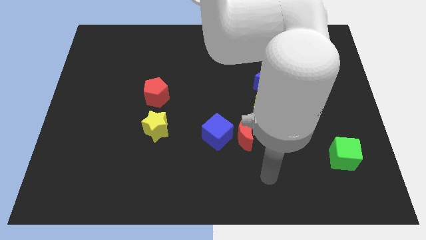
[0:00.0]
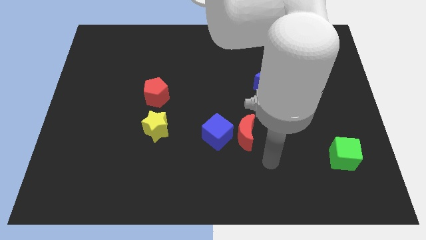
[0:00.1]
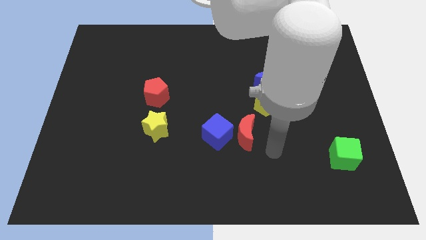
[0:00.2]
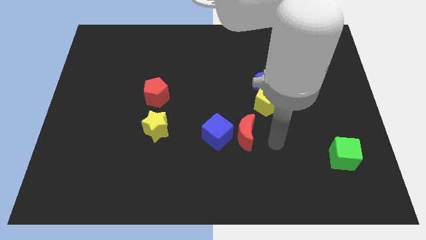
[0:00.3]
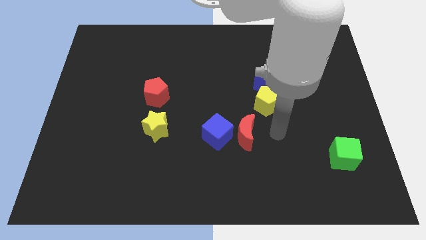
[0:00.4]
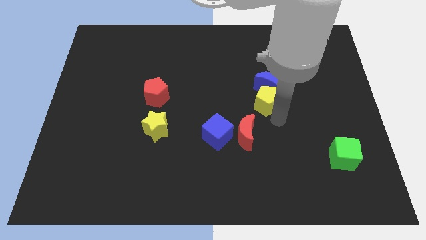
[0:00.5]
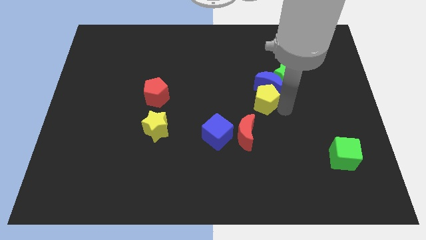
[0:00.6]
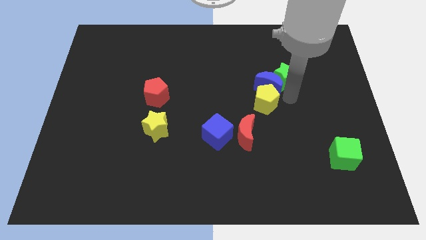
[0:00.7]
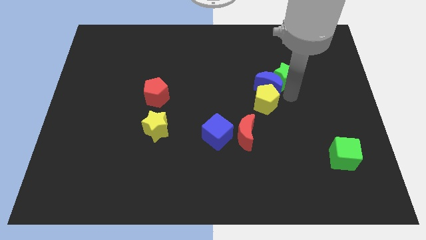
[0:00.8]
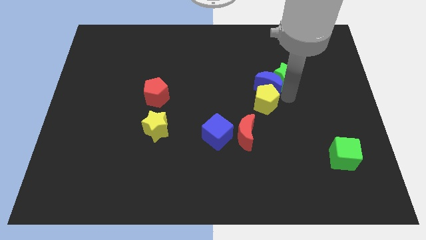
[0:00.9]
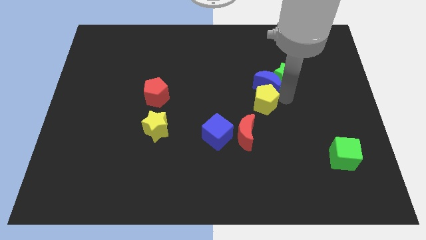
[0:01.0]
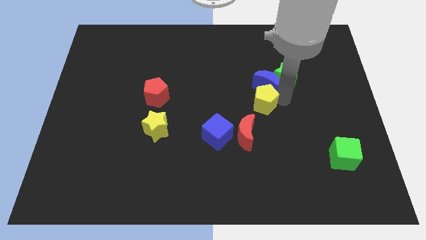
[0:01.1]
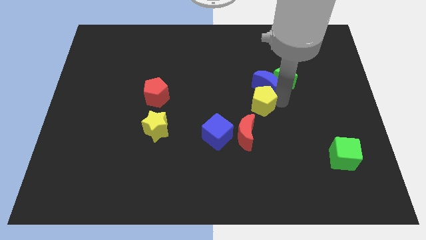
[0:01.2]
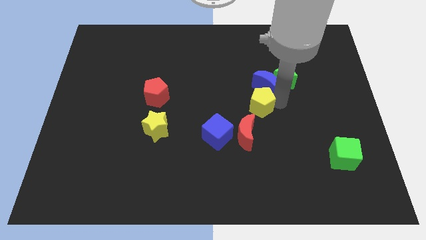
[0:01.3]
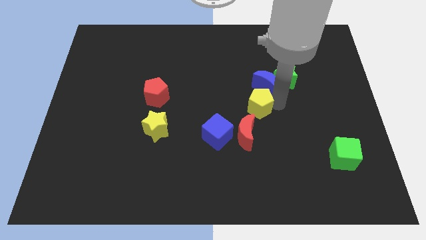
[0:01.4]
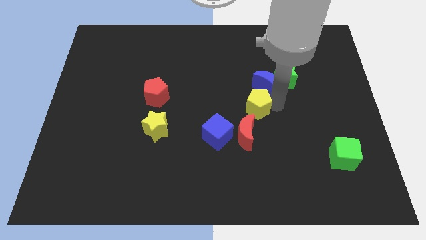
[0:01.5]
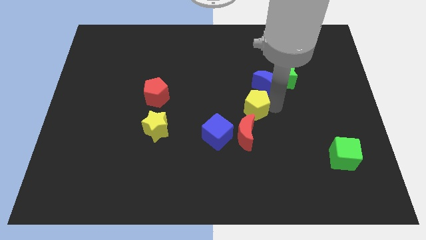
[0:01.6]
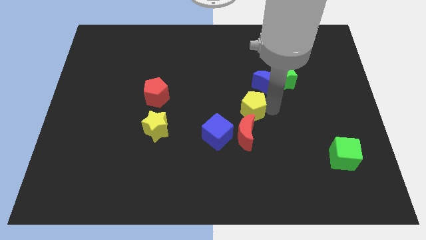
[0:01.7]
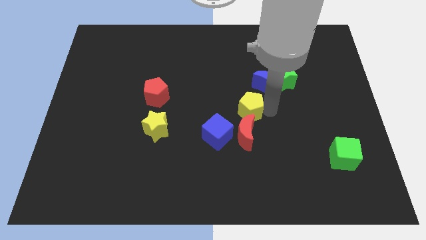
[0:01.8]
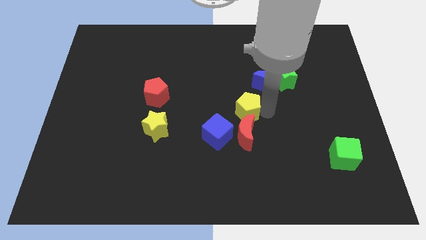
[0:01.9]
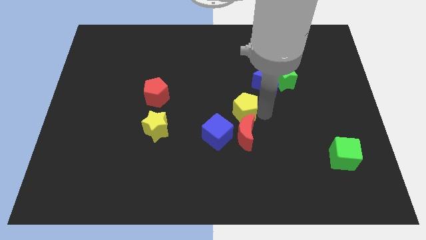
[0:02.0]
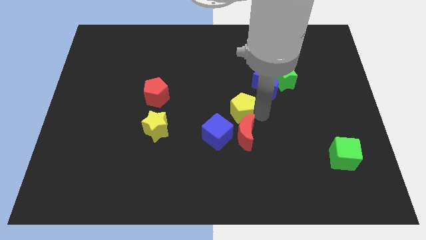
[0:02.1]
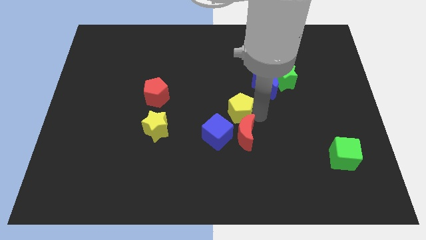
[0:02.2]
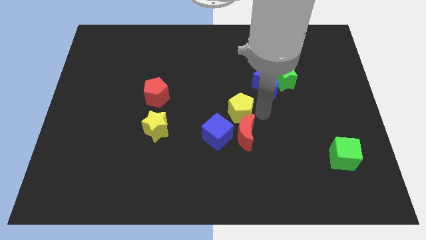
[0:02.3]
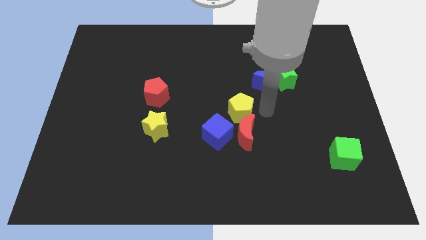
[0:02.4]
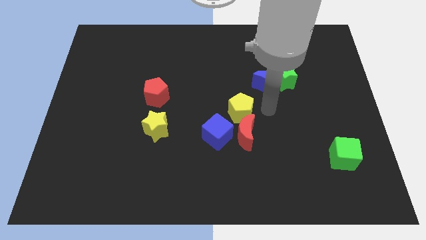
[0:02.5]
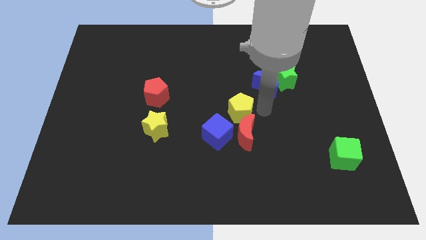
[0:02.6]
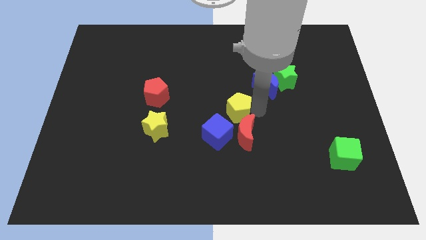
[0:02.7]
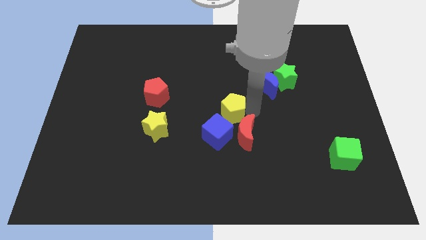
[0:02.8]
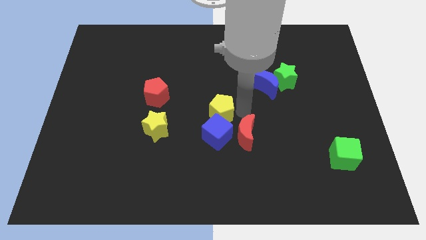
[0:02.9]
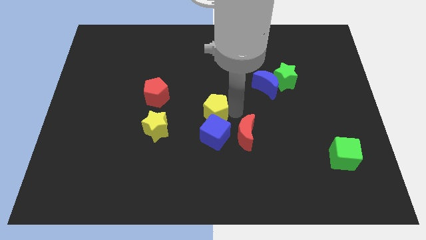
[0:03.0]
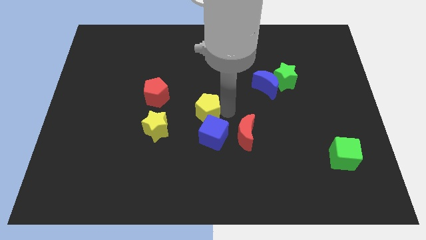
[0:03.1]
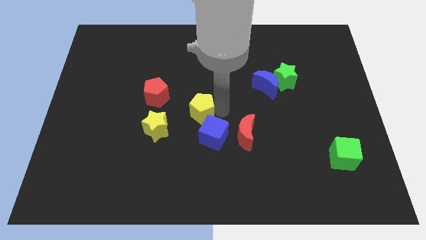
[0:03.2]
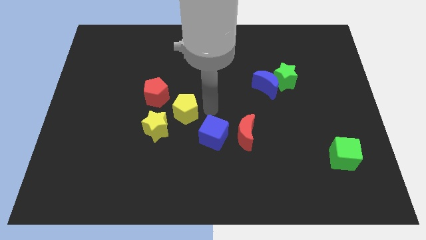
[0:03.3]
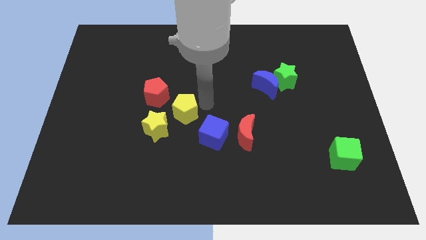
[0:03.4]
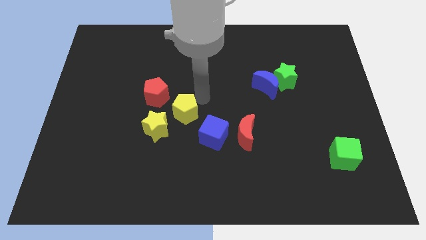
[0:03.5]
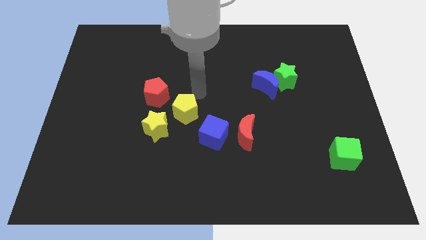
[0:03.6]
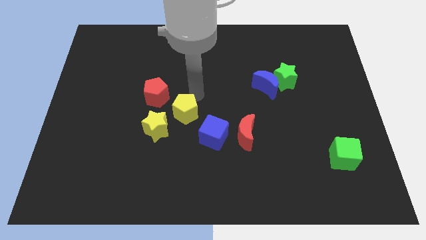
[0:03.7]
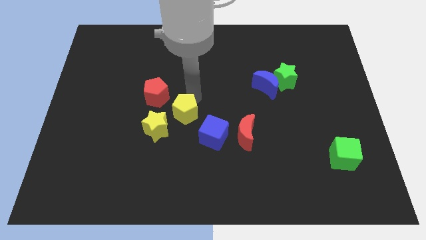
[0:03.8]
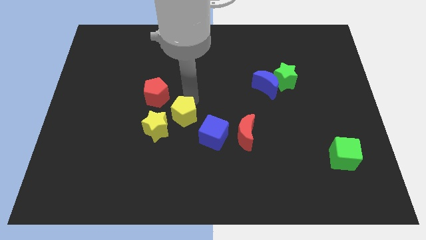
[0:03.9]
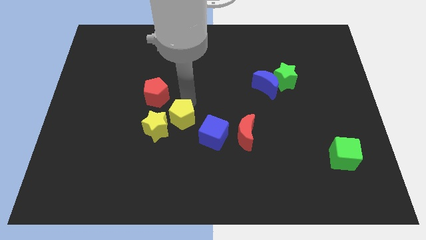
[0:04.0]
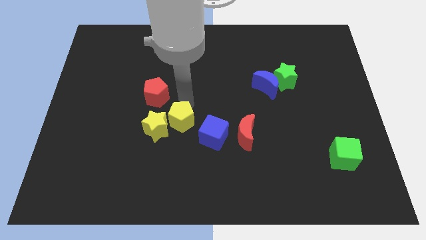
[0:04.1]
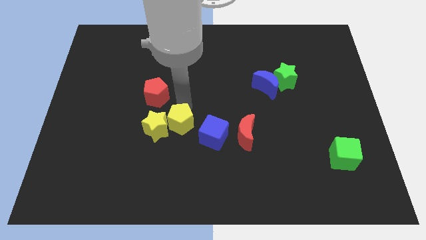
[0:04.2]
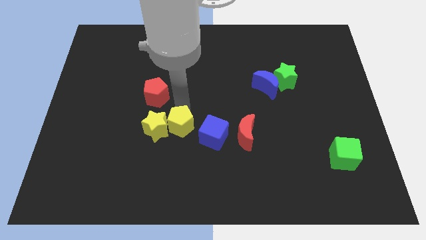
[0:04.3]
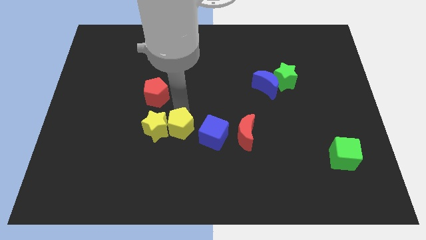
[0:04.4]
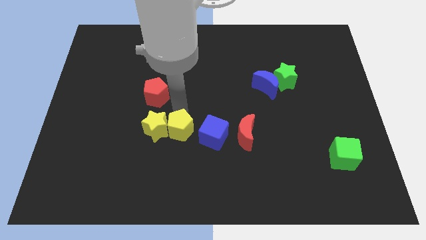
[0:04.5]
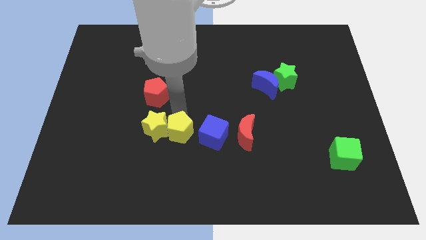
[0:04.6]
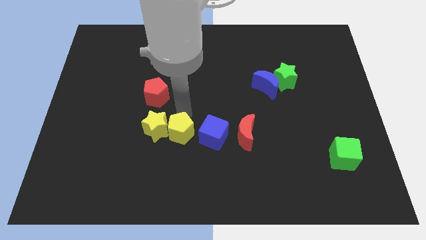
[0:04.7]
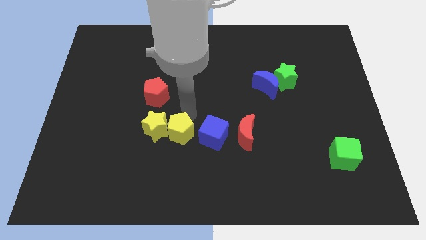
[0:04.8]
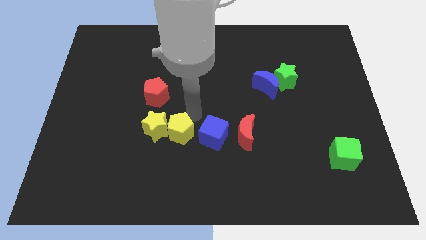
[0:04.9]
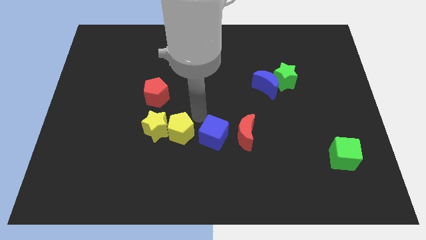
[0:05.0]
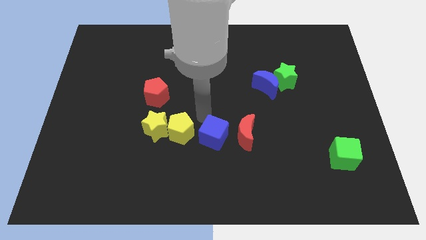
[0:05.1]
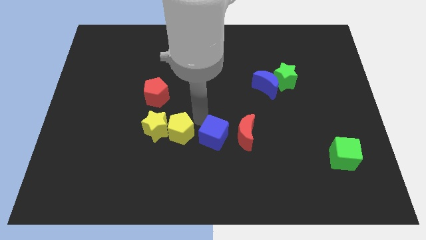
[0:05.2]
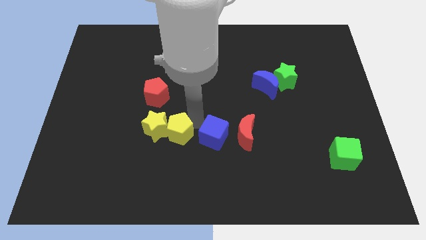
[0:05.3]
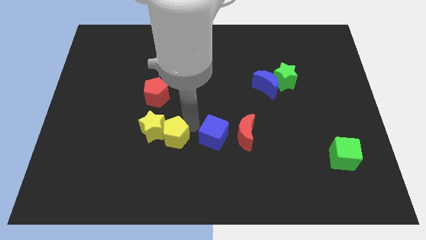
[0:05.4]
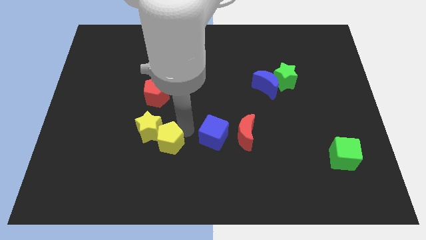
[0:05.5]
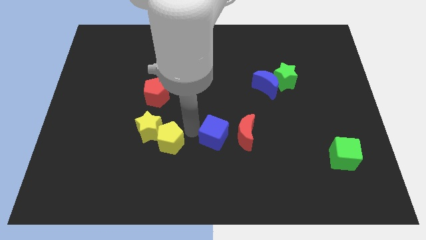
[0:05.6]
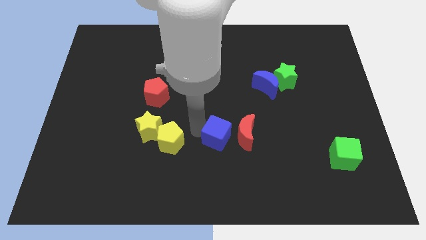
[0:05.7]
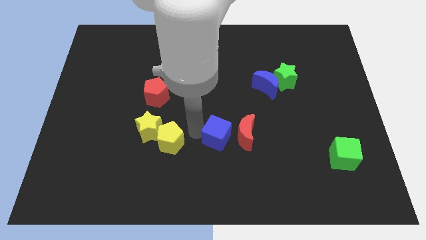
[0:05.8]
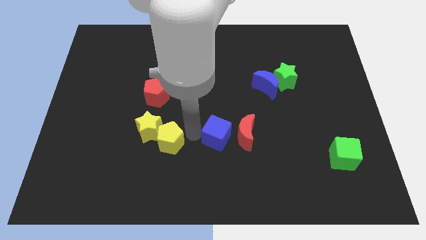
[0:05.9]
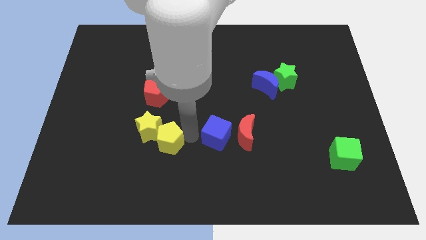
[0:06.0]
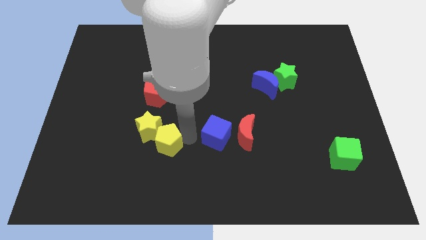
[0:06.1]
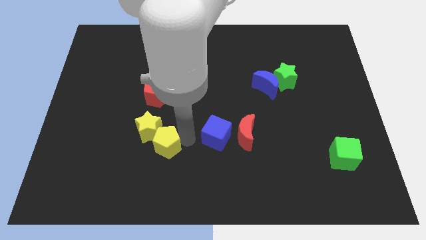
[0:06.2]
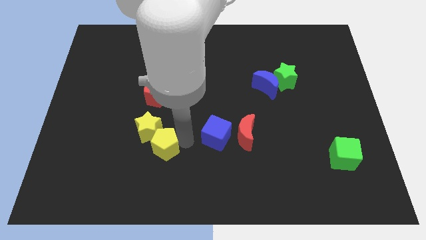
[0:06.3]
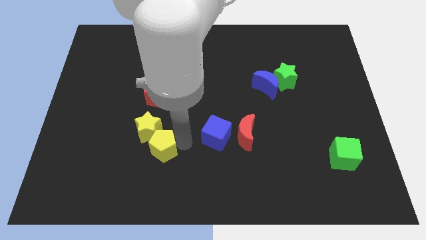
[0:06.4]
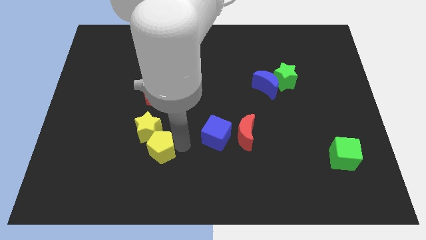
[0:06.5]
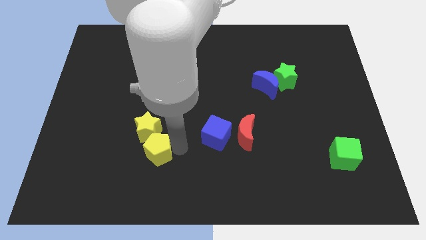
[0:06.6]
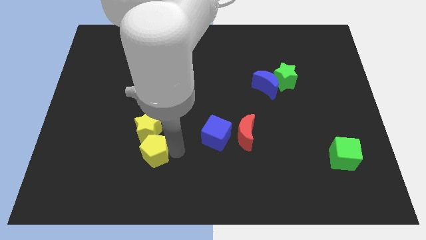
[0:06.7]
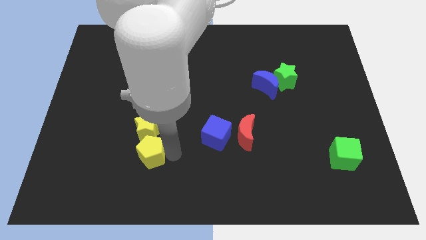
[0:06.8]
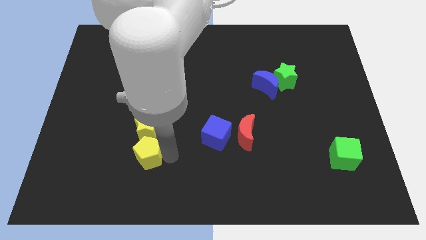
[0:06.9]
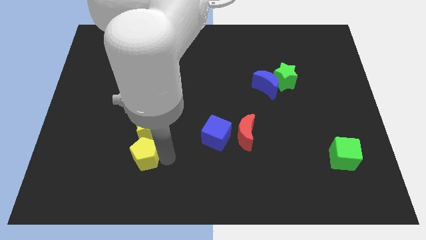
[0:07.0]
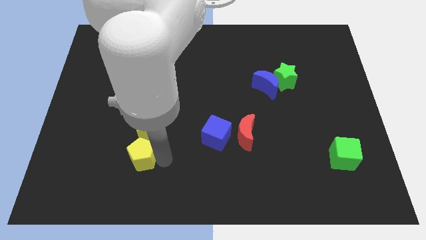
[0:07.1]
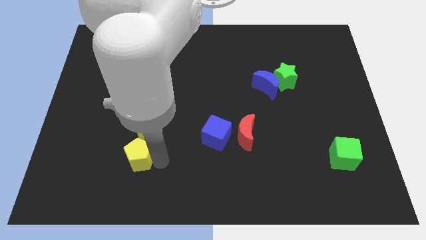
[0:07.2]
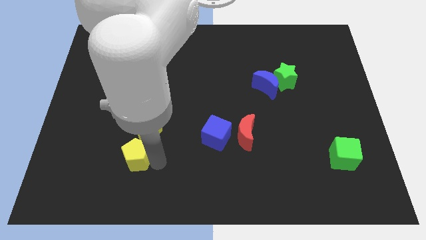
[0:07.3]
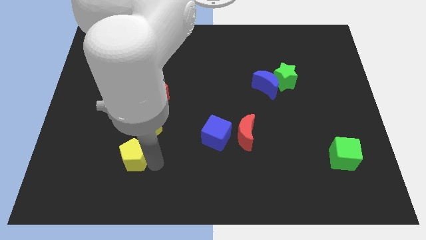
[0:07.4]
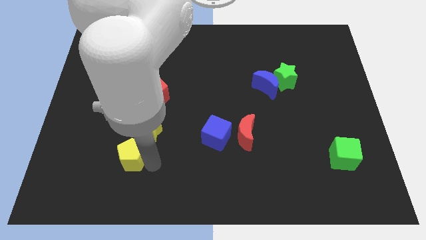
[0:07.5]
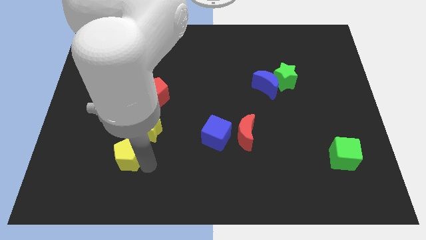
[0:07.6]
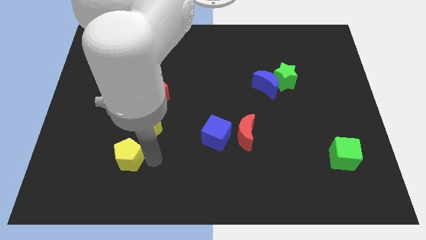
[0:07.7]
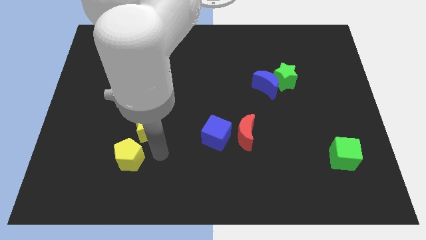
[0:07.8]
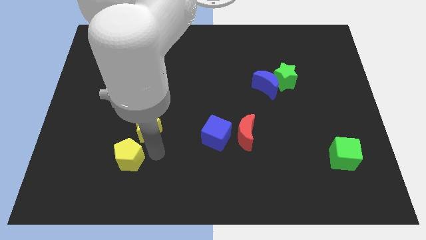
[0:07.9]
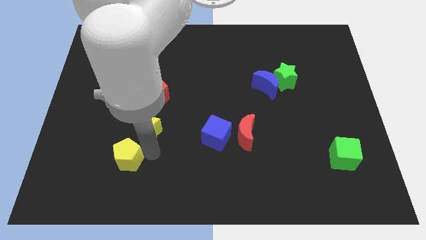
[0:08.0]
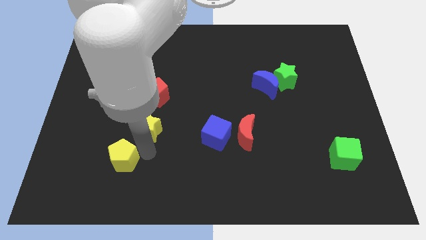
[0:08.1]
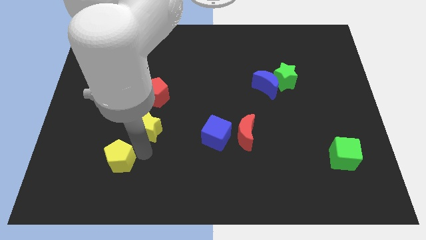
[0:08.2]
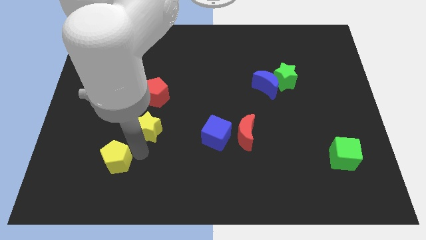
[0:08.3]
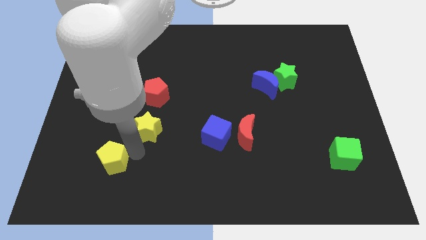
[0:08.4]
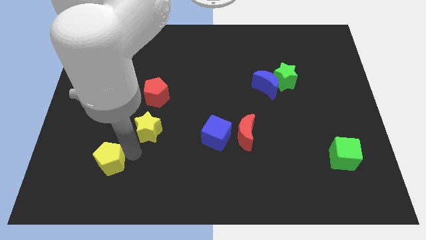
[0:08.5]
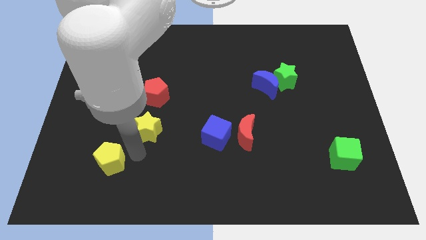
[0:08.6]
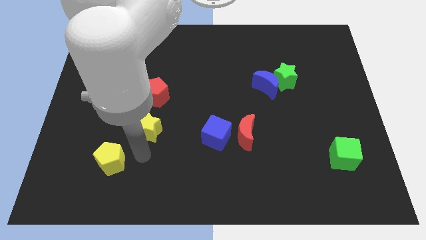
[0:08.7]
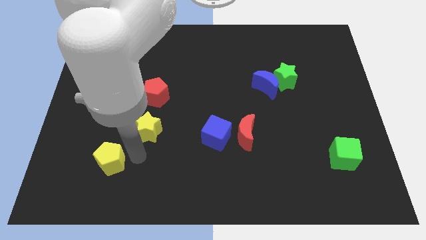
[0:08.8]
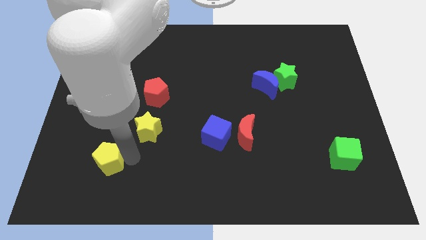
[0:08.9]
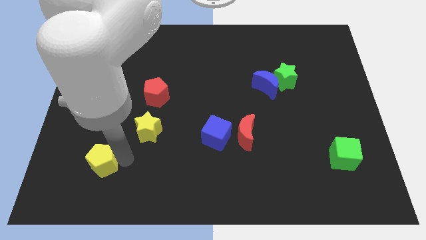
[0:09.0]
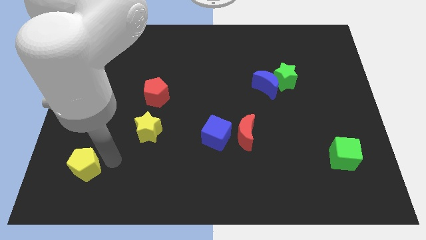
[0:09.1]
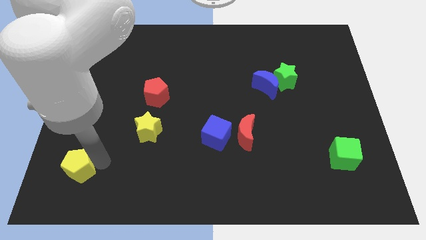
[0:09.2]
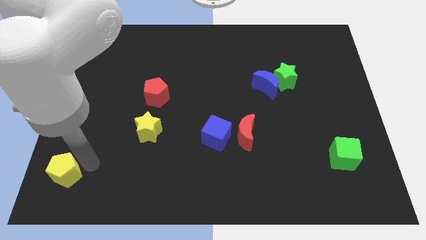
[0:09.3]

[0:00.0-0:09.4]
push the yellow pentagon to the bottom left corner
